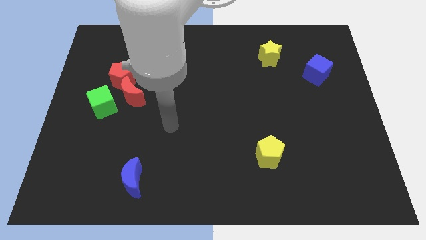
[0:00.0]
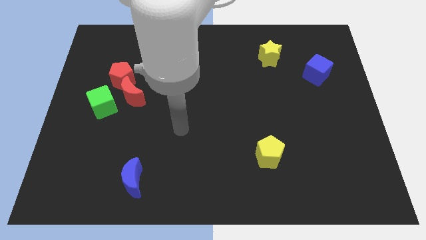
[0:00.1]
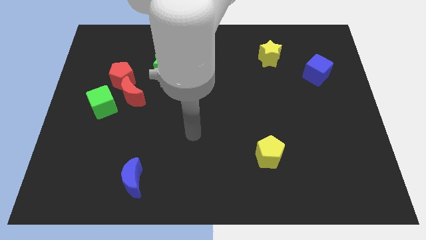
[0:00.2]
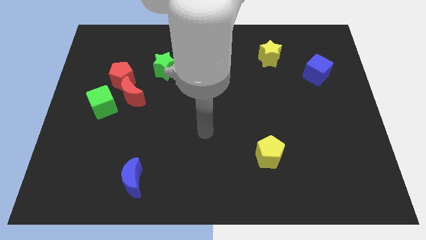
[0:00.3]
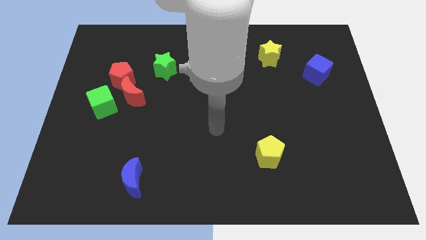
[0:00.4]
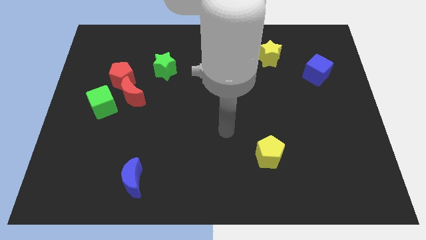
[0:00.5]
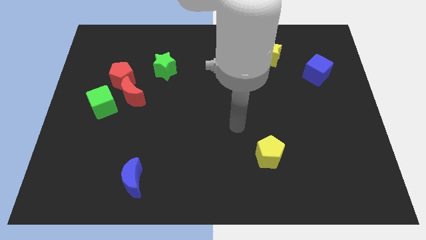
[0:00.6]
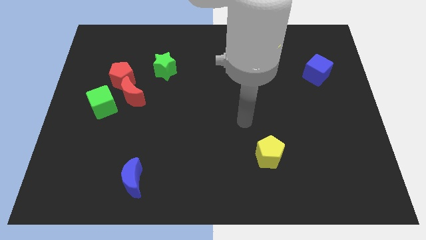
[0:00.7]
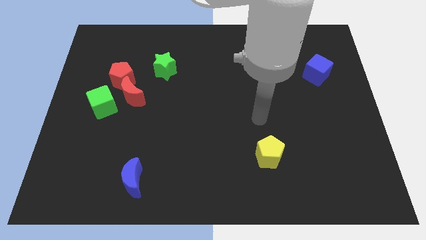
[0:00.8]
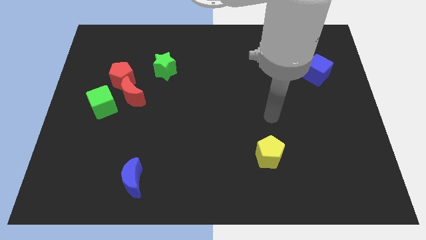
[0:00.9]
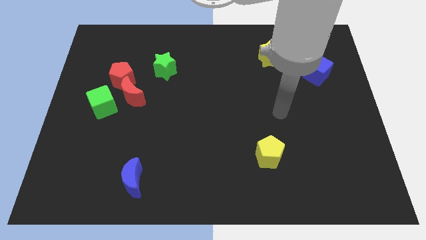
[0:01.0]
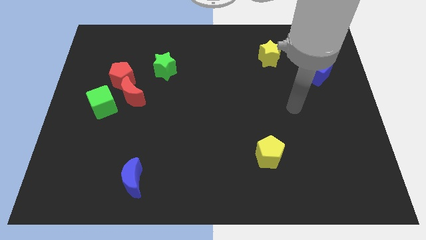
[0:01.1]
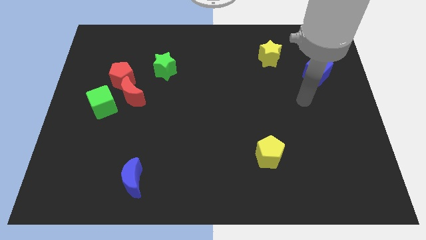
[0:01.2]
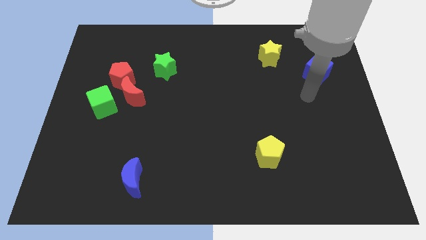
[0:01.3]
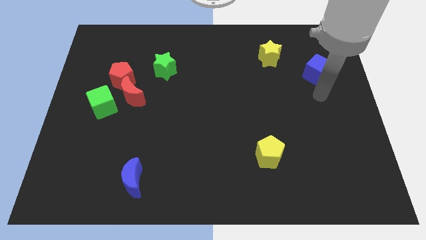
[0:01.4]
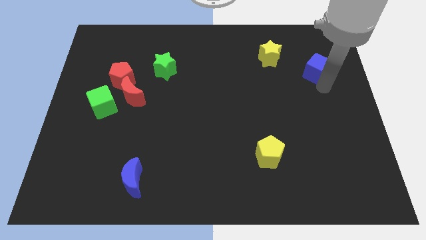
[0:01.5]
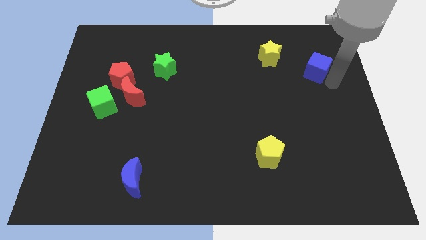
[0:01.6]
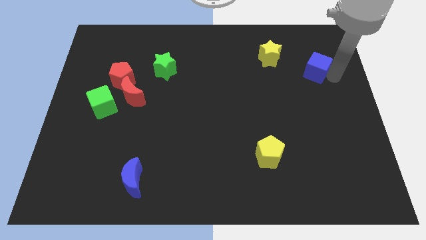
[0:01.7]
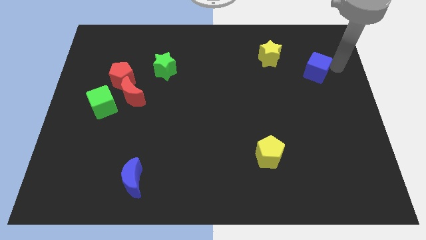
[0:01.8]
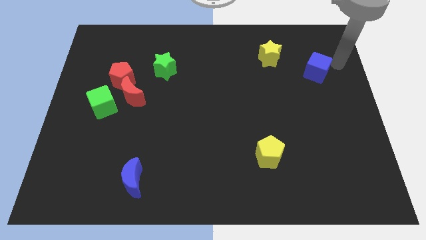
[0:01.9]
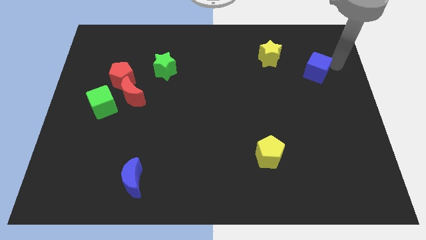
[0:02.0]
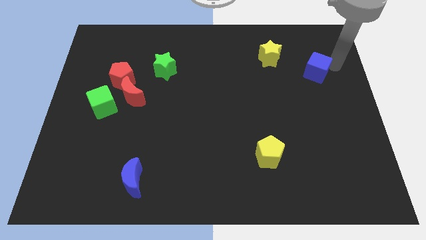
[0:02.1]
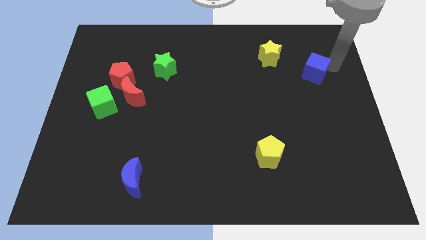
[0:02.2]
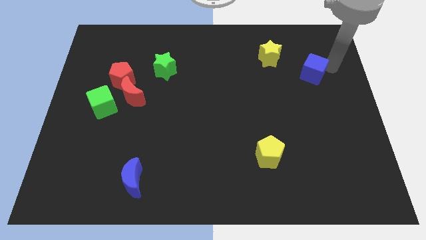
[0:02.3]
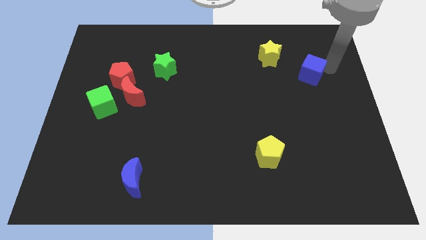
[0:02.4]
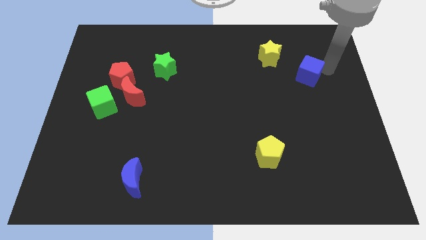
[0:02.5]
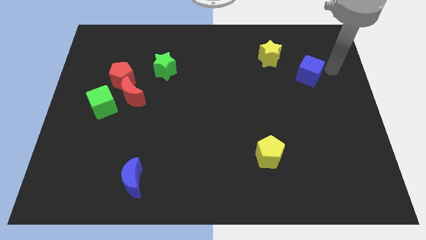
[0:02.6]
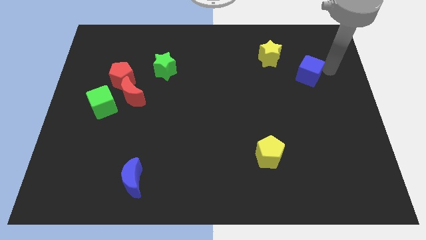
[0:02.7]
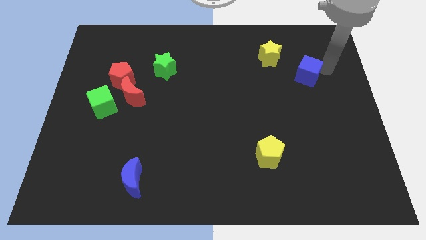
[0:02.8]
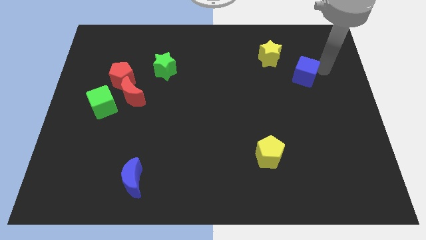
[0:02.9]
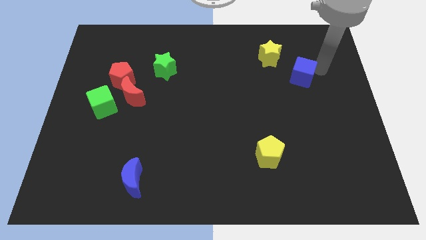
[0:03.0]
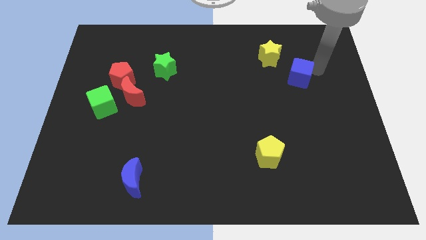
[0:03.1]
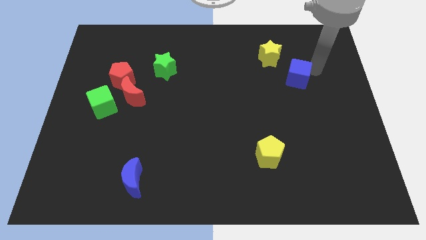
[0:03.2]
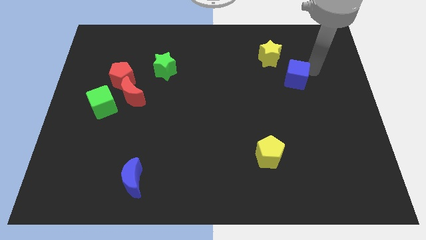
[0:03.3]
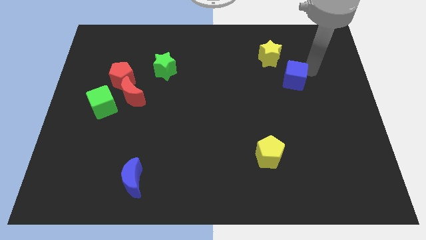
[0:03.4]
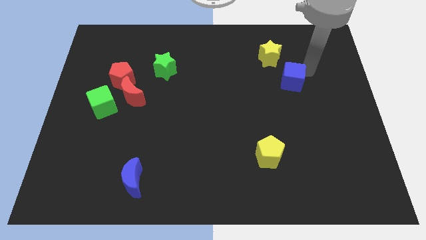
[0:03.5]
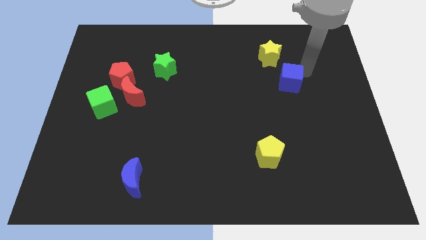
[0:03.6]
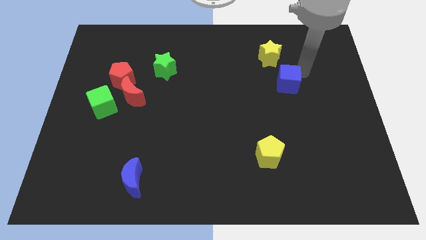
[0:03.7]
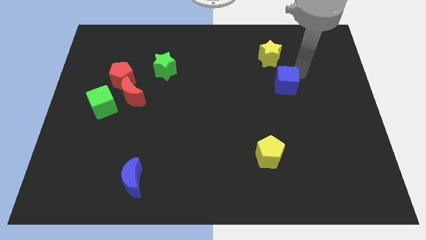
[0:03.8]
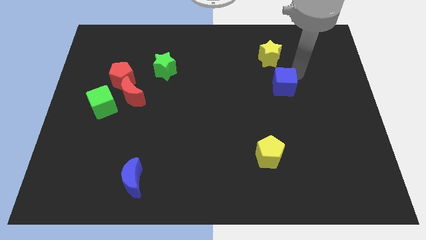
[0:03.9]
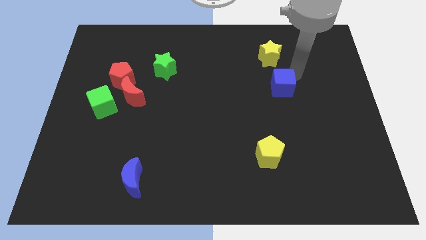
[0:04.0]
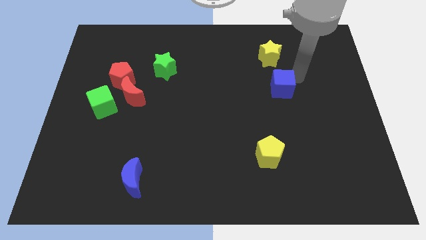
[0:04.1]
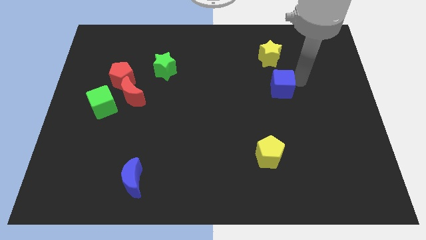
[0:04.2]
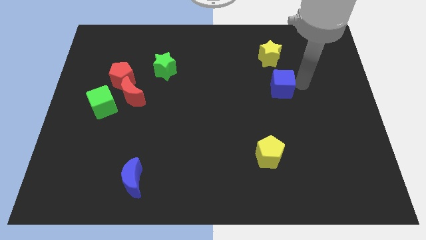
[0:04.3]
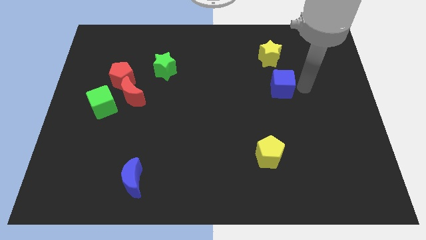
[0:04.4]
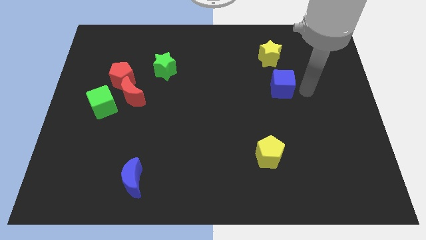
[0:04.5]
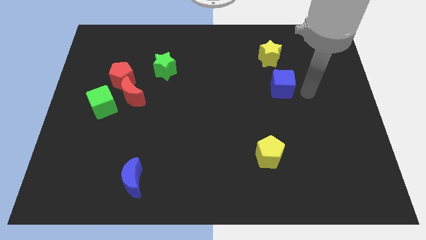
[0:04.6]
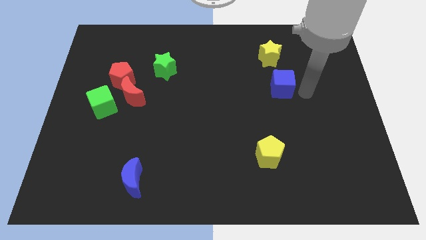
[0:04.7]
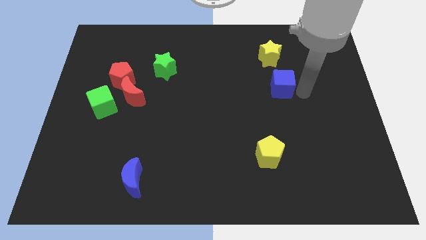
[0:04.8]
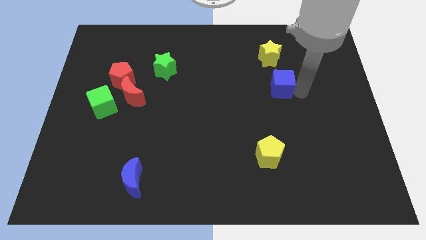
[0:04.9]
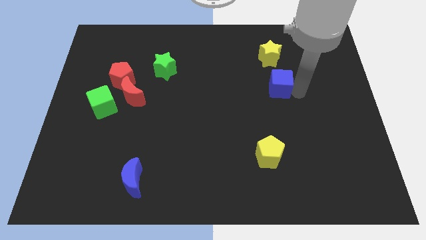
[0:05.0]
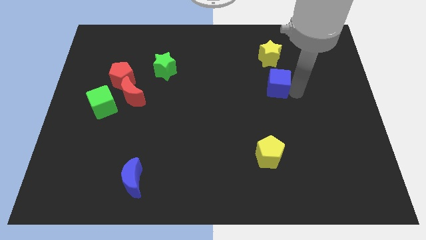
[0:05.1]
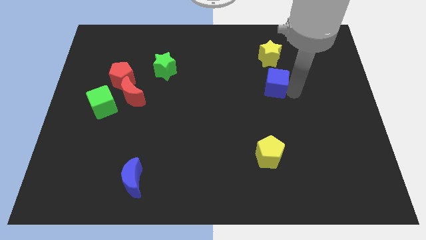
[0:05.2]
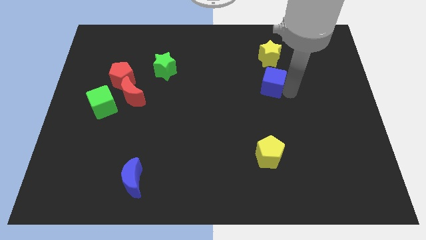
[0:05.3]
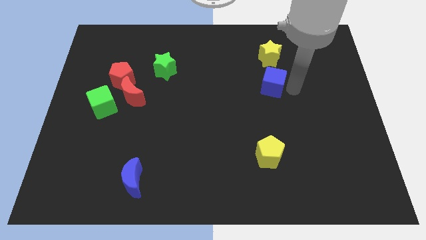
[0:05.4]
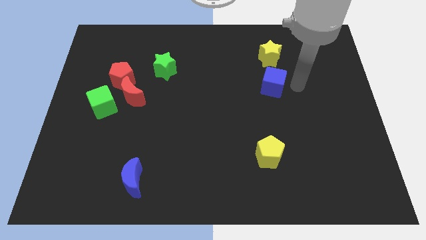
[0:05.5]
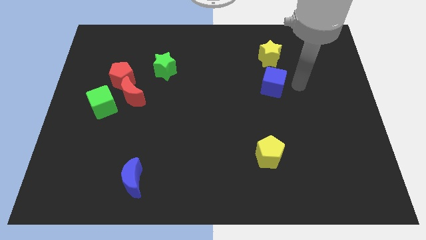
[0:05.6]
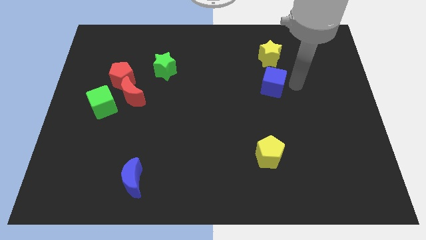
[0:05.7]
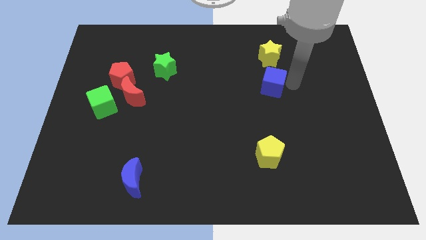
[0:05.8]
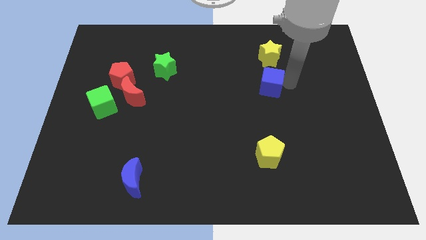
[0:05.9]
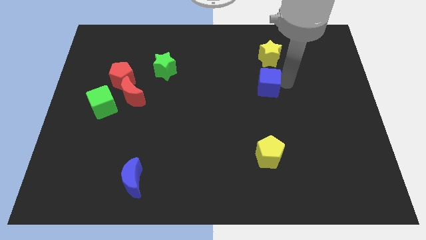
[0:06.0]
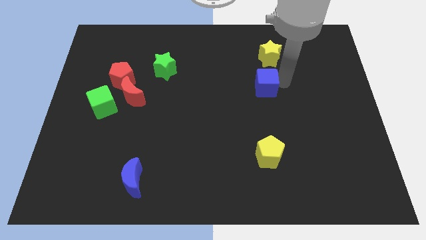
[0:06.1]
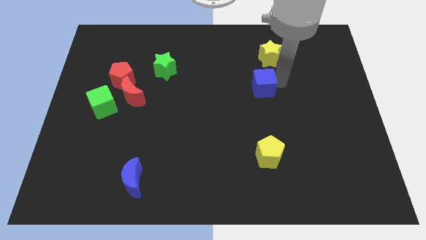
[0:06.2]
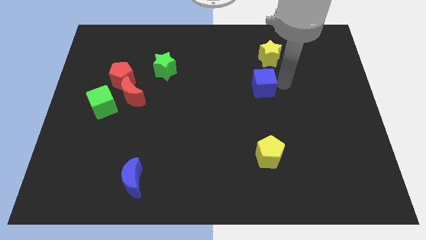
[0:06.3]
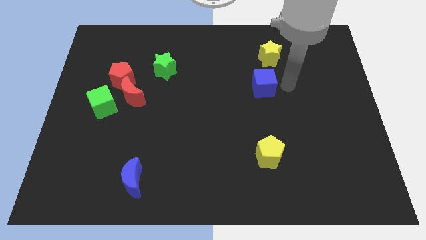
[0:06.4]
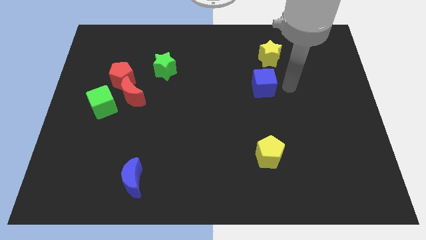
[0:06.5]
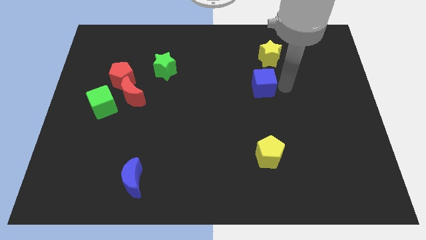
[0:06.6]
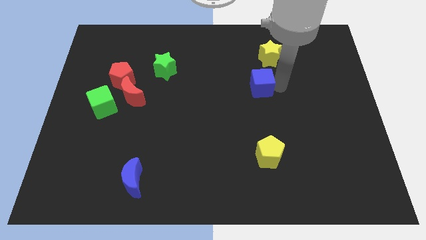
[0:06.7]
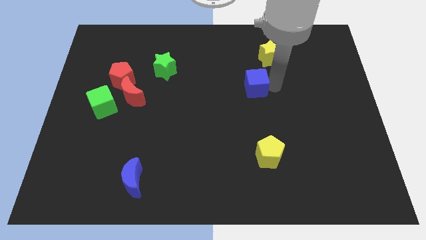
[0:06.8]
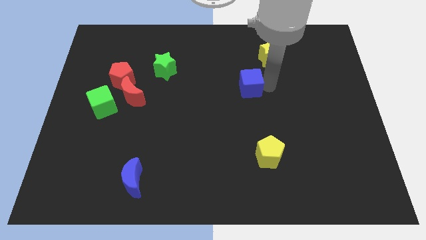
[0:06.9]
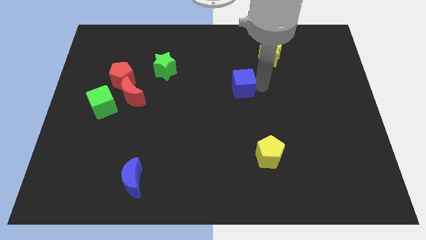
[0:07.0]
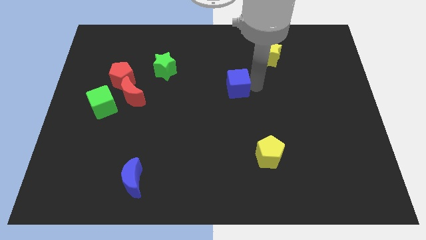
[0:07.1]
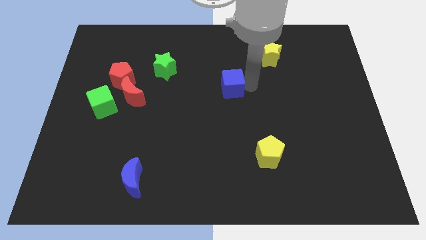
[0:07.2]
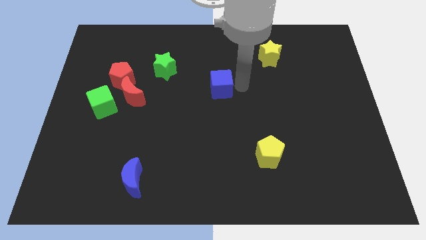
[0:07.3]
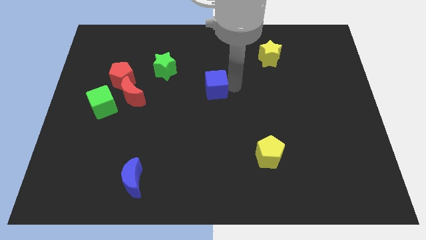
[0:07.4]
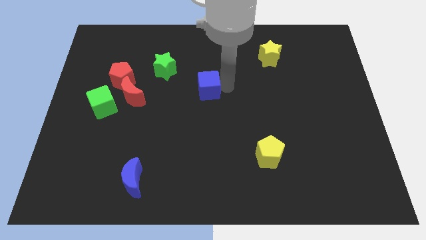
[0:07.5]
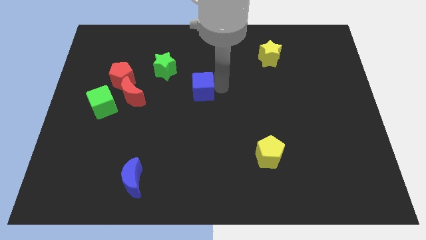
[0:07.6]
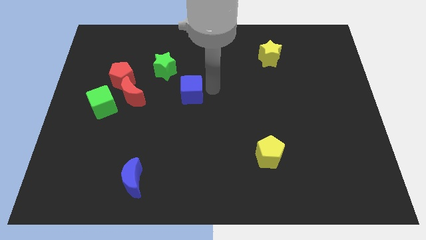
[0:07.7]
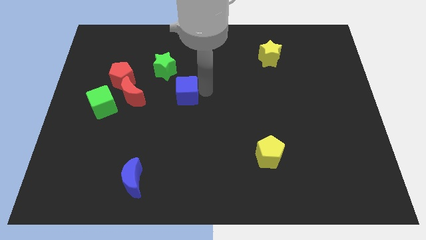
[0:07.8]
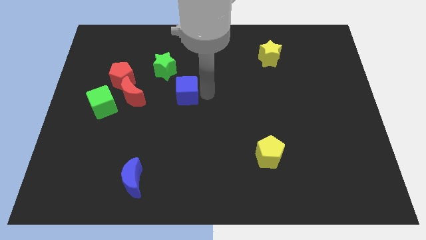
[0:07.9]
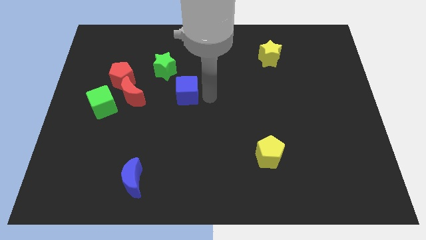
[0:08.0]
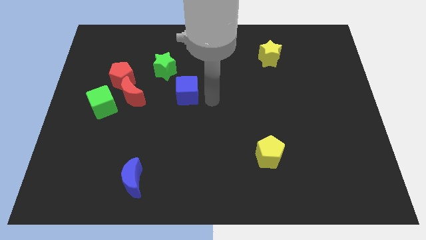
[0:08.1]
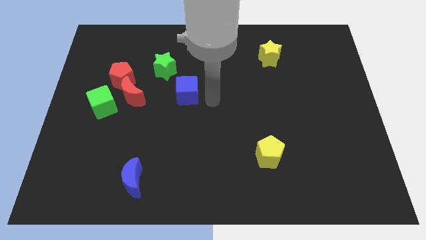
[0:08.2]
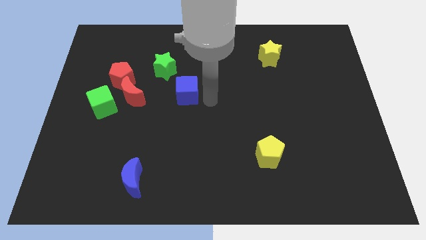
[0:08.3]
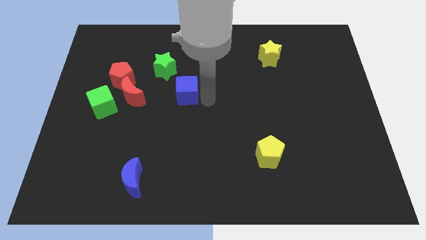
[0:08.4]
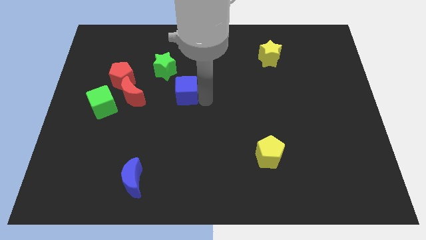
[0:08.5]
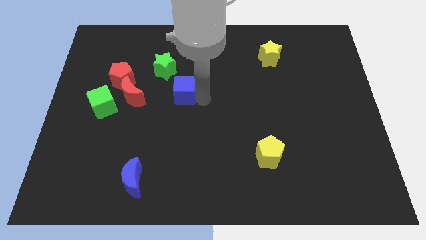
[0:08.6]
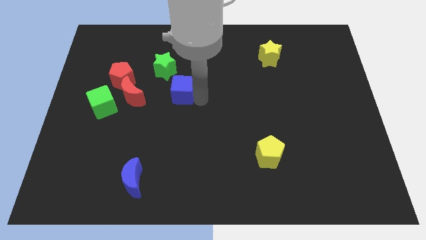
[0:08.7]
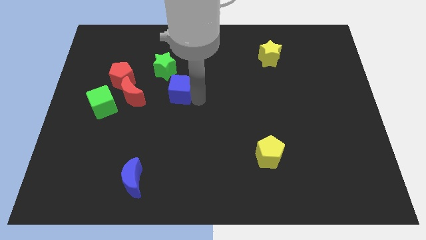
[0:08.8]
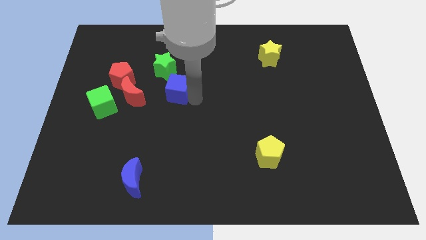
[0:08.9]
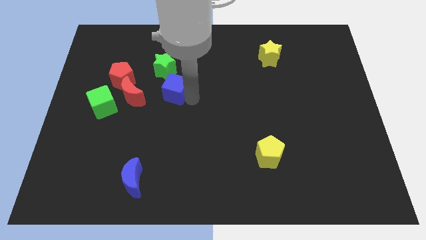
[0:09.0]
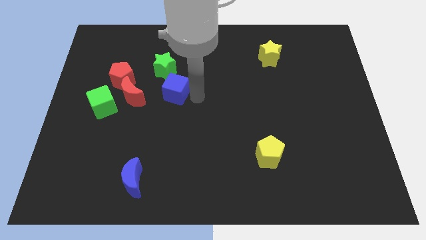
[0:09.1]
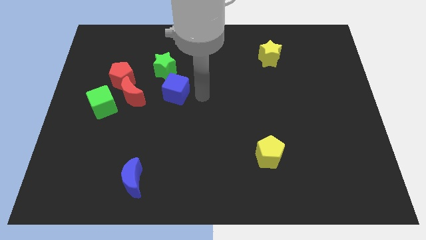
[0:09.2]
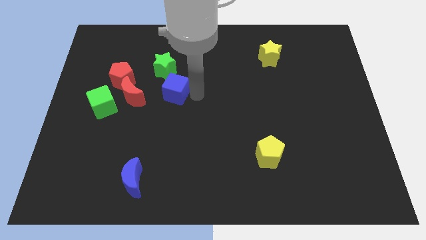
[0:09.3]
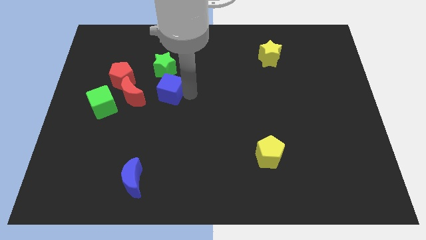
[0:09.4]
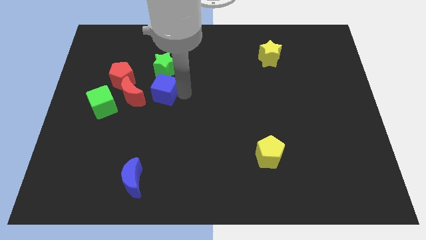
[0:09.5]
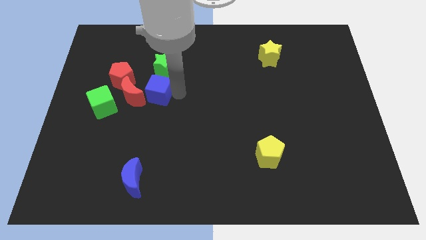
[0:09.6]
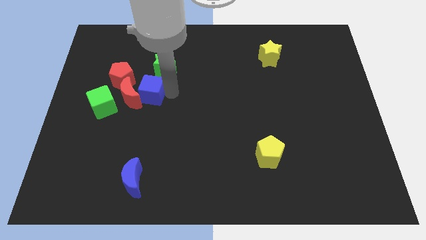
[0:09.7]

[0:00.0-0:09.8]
put the blue cube to the red moon
